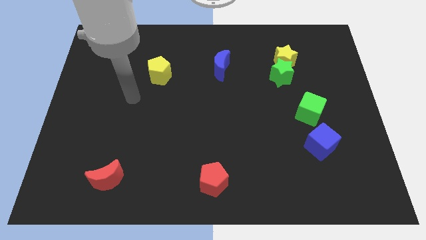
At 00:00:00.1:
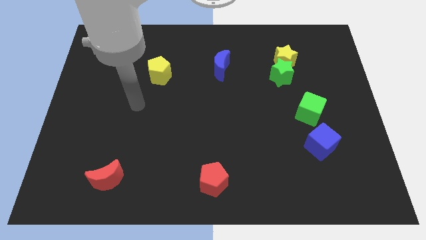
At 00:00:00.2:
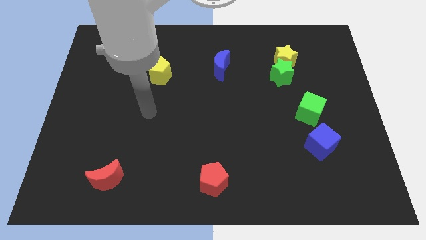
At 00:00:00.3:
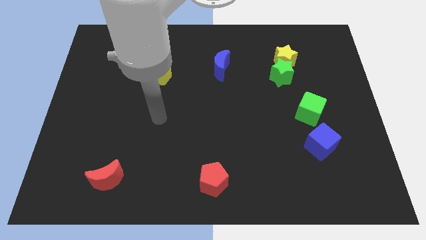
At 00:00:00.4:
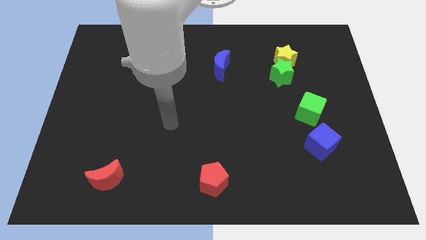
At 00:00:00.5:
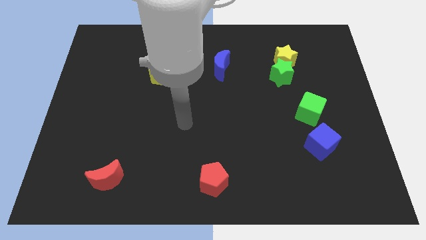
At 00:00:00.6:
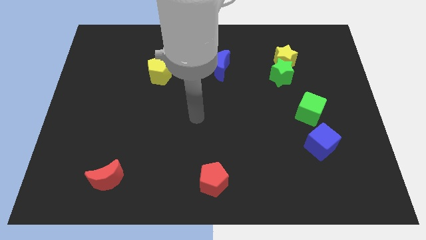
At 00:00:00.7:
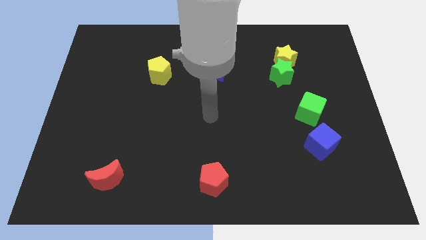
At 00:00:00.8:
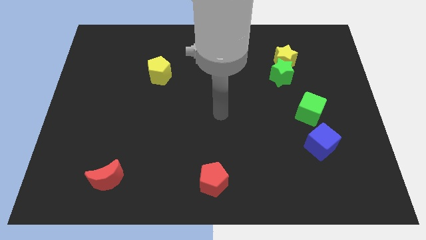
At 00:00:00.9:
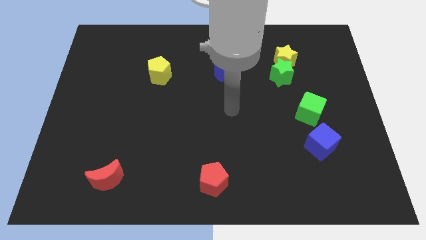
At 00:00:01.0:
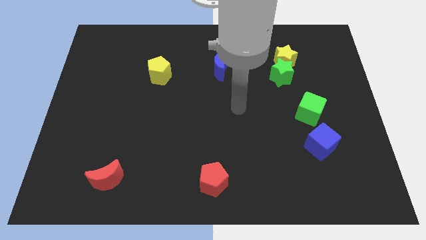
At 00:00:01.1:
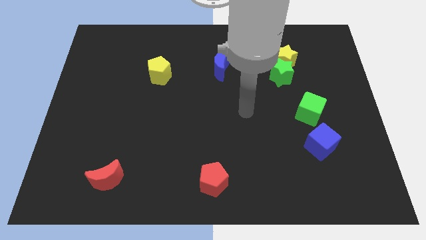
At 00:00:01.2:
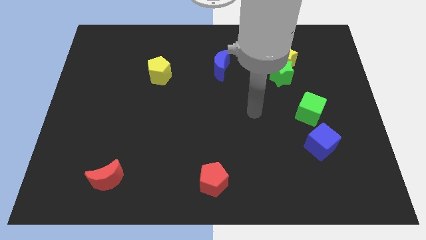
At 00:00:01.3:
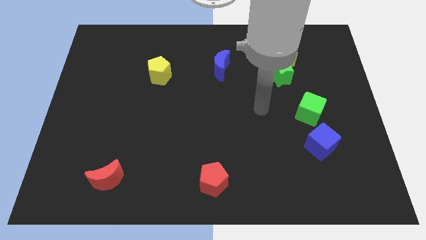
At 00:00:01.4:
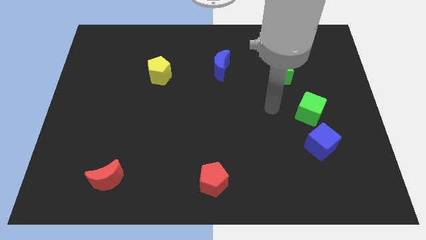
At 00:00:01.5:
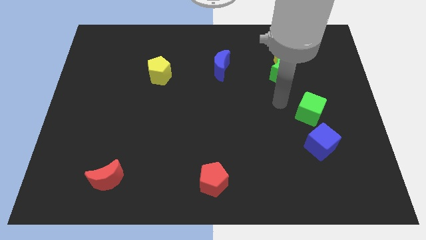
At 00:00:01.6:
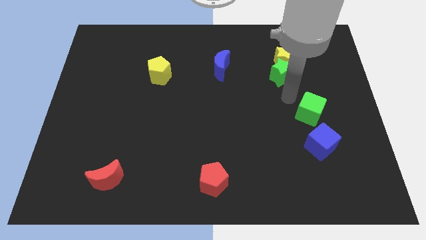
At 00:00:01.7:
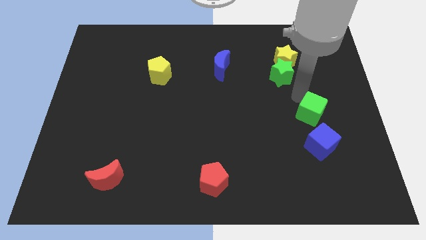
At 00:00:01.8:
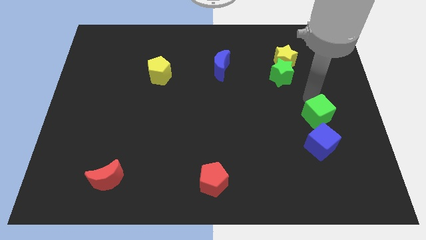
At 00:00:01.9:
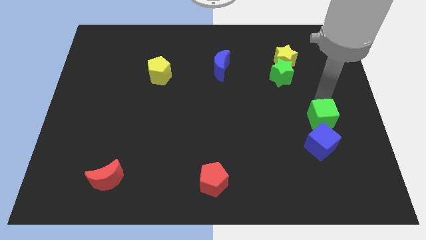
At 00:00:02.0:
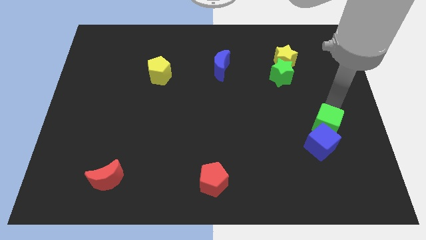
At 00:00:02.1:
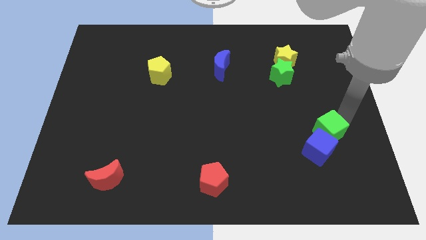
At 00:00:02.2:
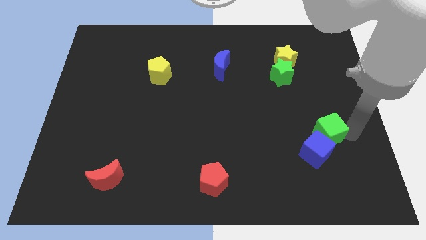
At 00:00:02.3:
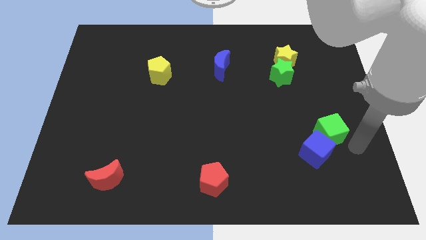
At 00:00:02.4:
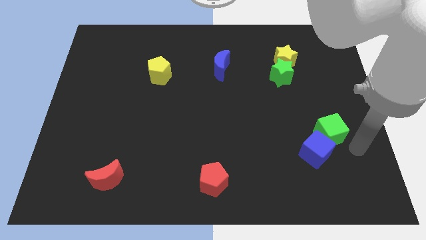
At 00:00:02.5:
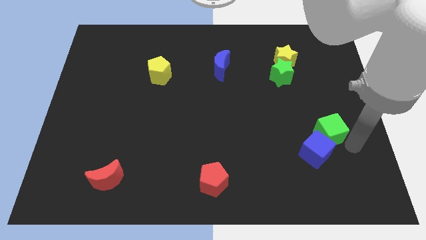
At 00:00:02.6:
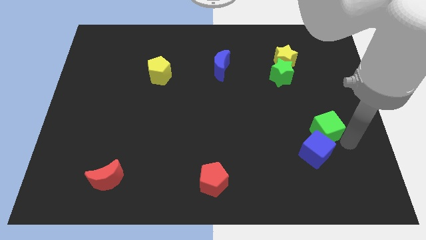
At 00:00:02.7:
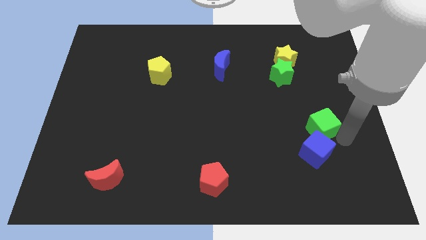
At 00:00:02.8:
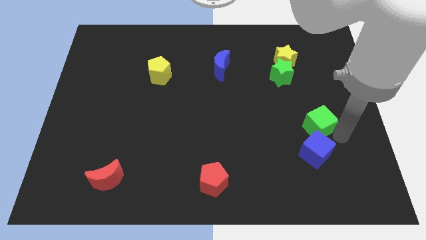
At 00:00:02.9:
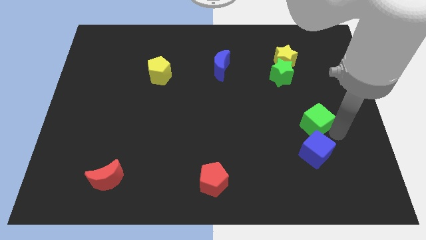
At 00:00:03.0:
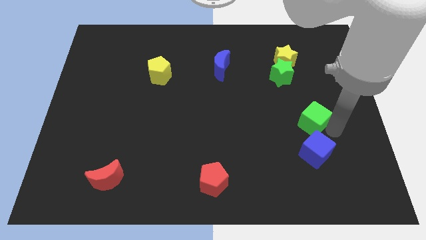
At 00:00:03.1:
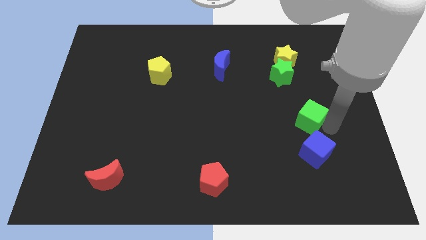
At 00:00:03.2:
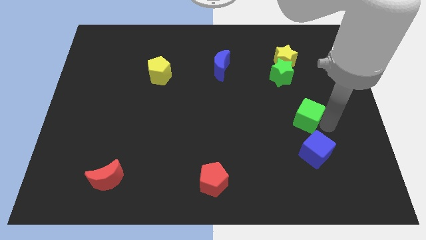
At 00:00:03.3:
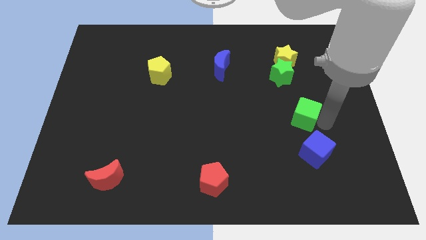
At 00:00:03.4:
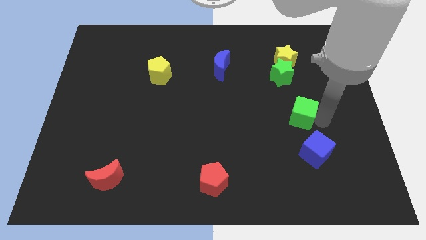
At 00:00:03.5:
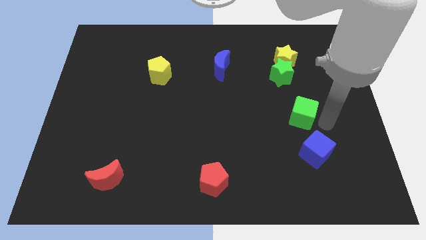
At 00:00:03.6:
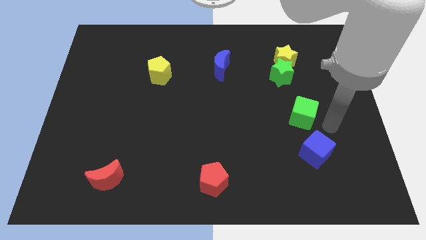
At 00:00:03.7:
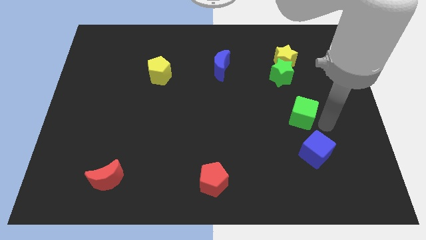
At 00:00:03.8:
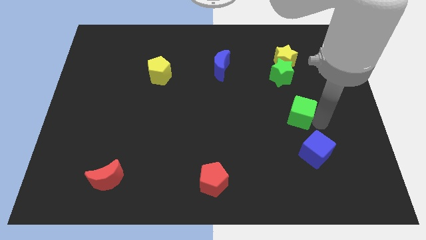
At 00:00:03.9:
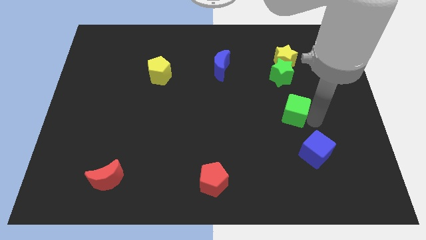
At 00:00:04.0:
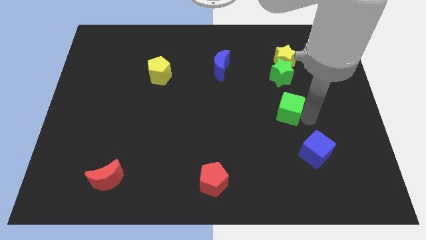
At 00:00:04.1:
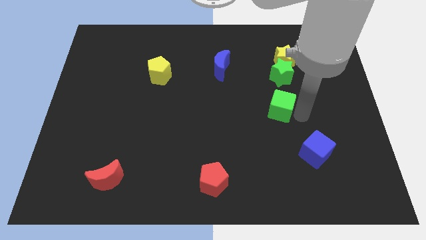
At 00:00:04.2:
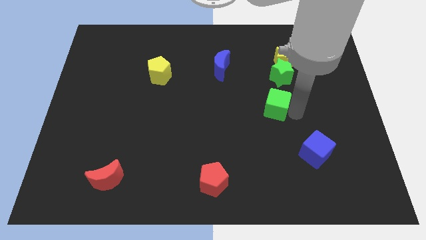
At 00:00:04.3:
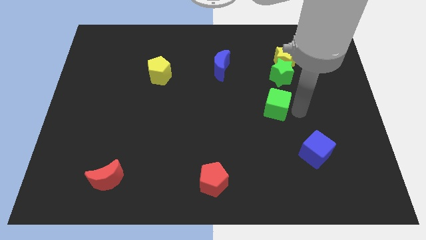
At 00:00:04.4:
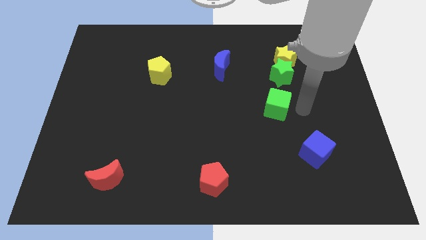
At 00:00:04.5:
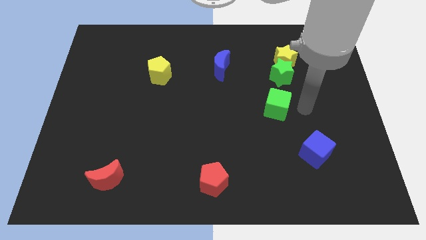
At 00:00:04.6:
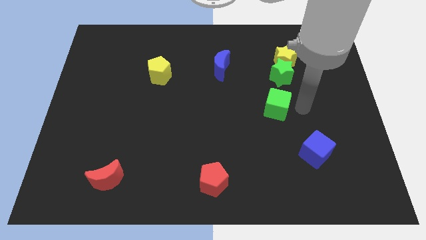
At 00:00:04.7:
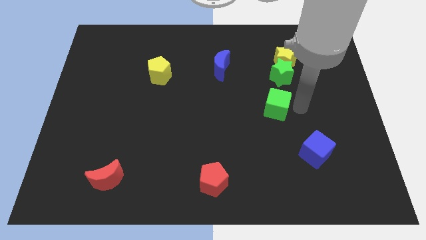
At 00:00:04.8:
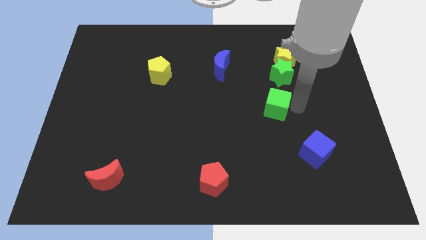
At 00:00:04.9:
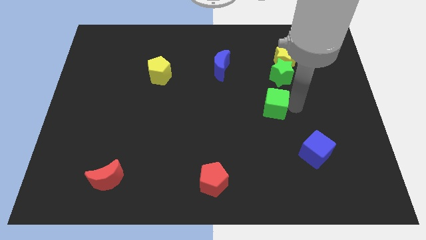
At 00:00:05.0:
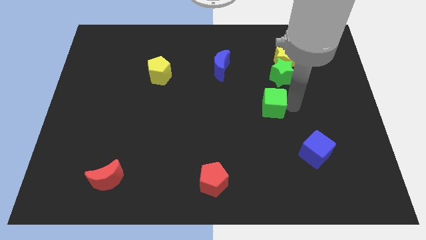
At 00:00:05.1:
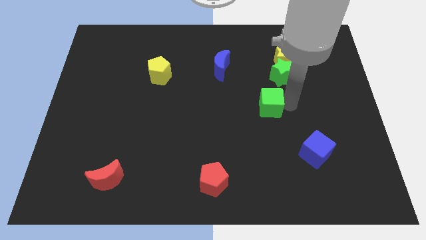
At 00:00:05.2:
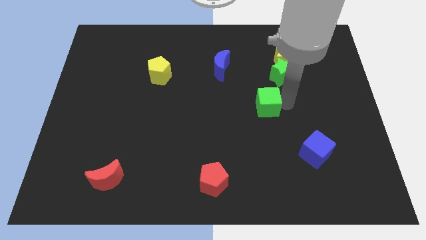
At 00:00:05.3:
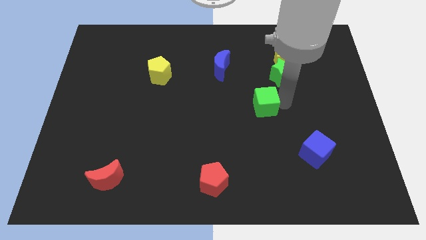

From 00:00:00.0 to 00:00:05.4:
slide the green cube to the middle of the board

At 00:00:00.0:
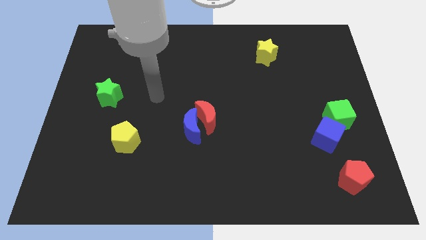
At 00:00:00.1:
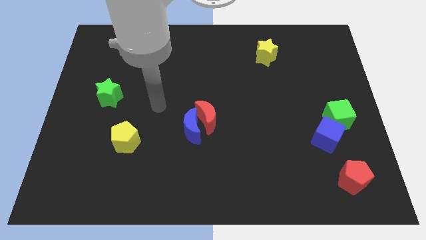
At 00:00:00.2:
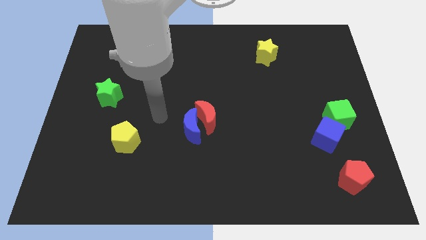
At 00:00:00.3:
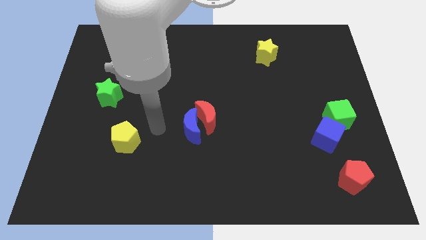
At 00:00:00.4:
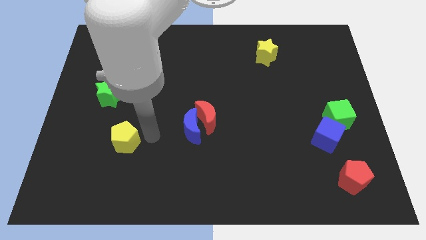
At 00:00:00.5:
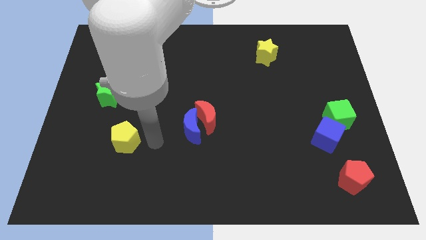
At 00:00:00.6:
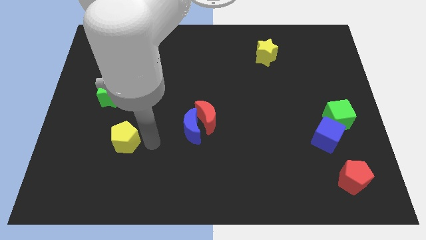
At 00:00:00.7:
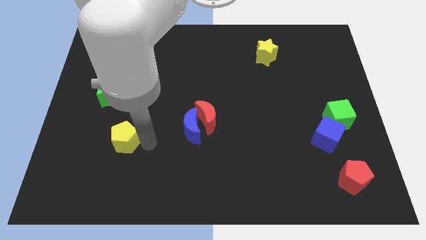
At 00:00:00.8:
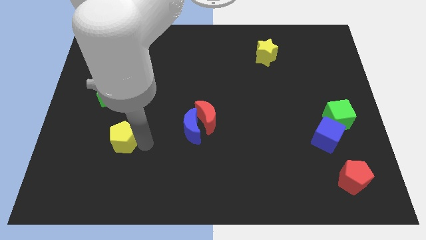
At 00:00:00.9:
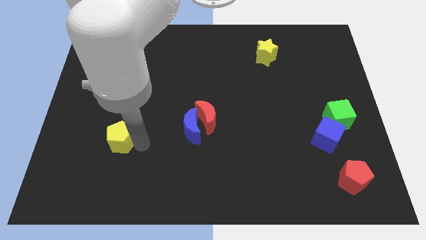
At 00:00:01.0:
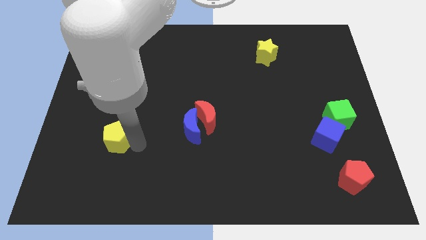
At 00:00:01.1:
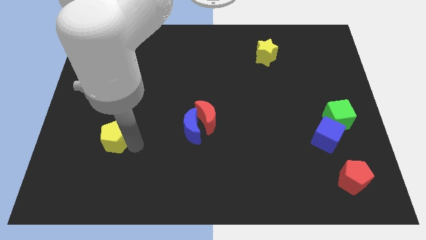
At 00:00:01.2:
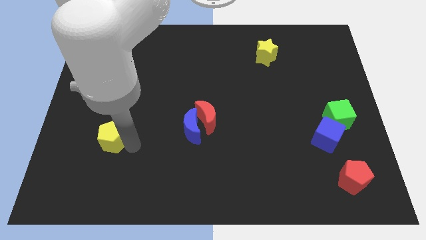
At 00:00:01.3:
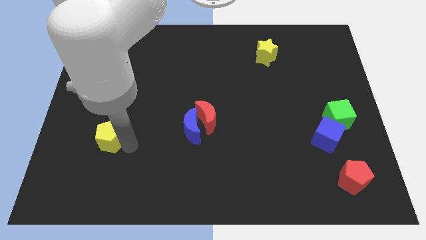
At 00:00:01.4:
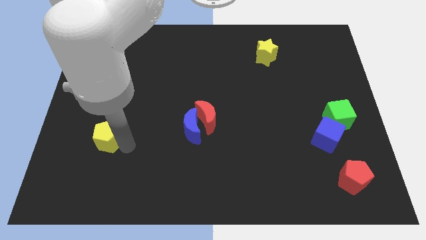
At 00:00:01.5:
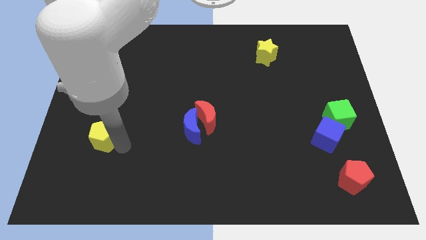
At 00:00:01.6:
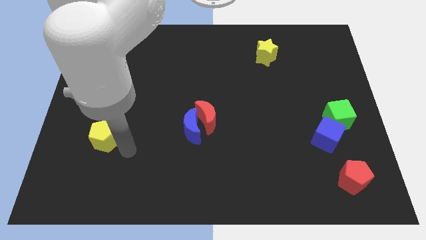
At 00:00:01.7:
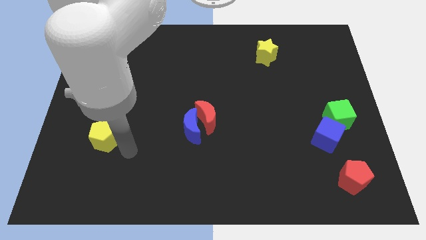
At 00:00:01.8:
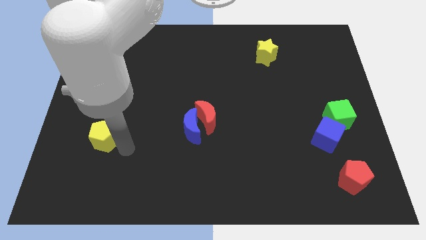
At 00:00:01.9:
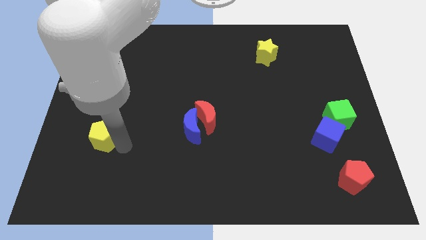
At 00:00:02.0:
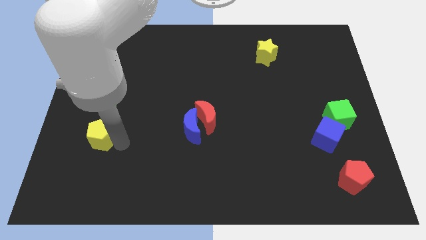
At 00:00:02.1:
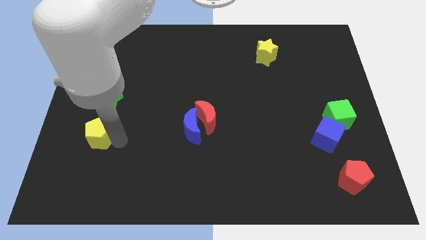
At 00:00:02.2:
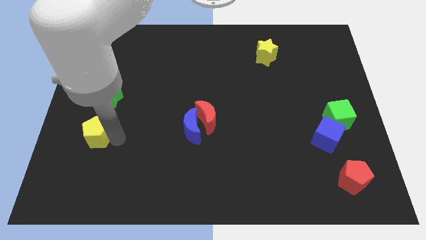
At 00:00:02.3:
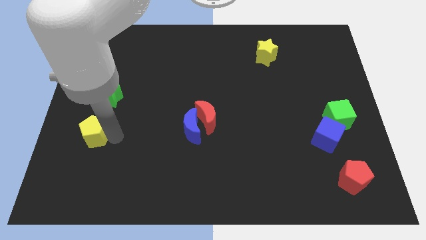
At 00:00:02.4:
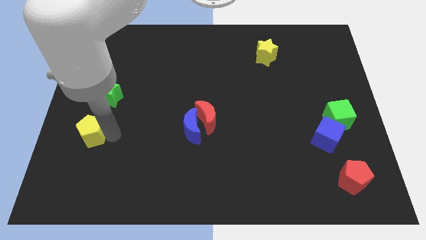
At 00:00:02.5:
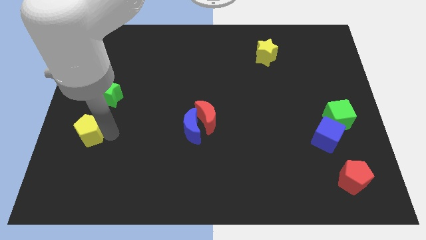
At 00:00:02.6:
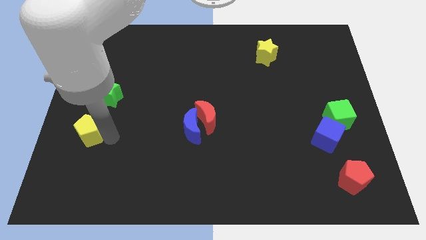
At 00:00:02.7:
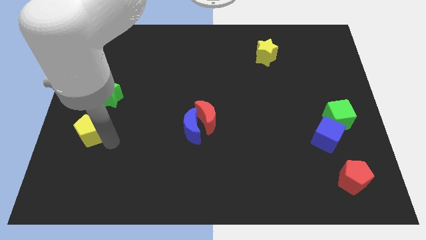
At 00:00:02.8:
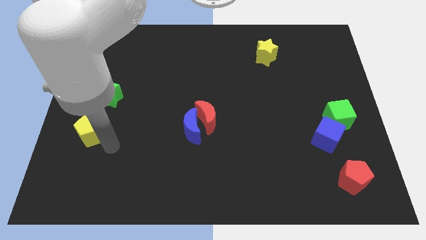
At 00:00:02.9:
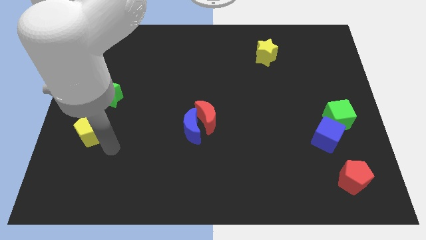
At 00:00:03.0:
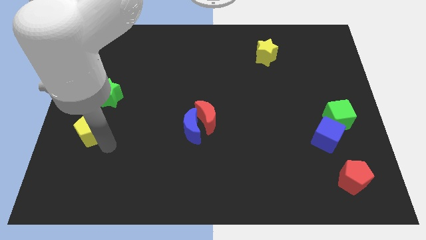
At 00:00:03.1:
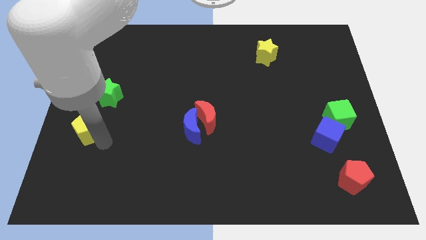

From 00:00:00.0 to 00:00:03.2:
slide the yellow pentagon to the left side of the board
